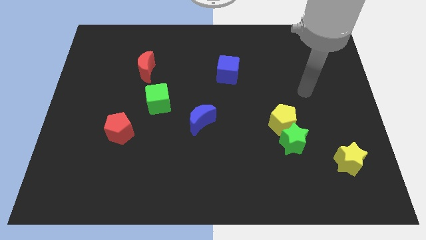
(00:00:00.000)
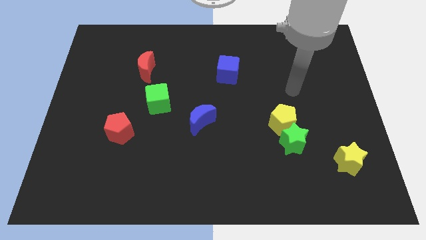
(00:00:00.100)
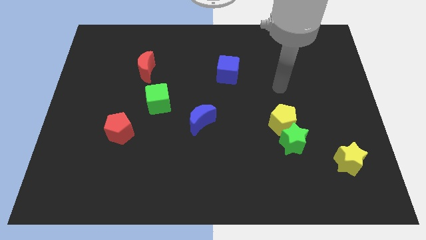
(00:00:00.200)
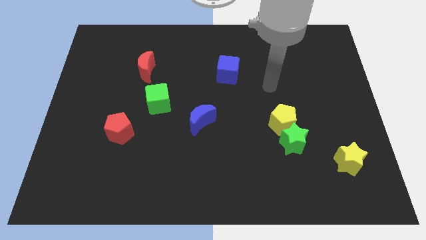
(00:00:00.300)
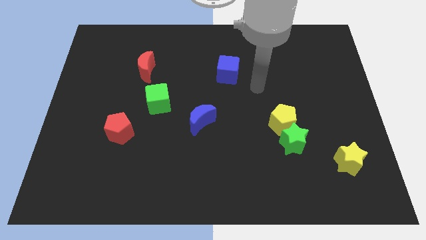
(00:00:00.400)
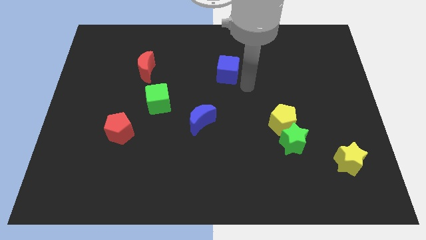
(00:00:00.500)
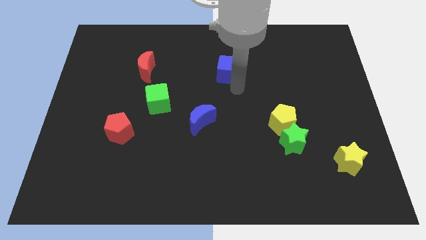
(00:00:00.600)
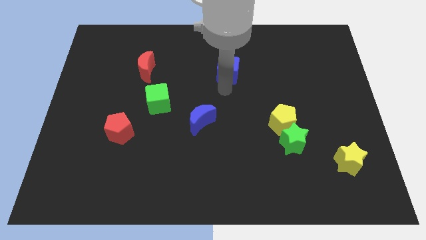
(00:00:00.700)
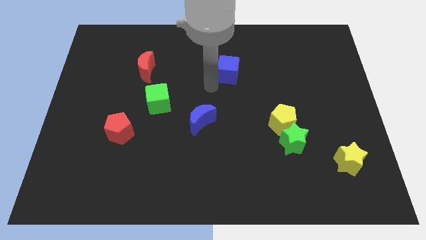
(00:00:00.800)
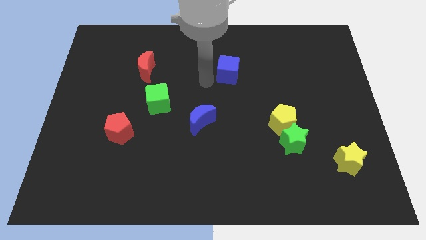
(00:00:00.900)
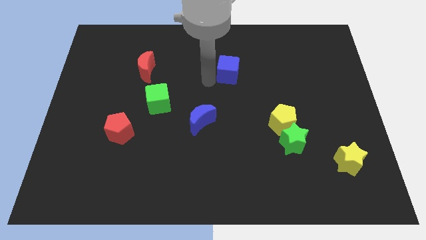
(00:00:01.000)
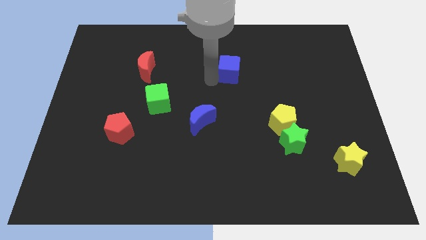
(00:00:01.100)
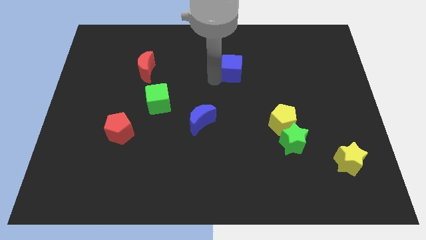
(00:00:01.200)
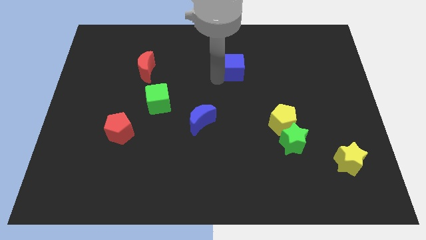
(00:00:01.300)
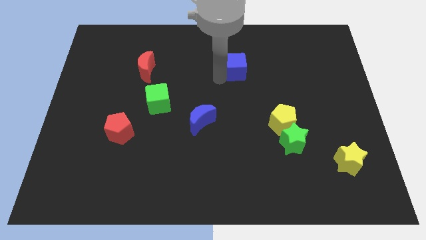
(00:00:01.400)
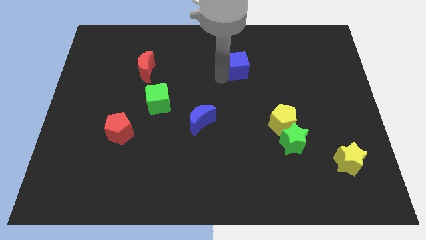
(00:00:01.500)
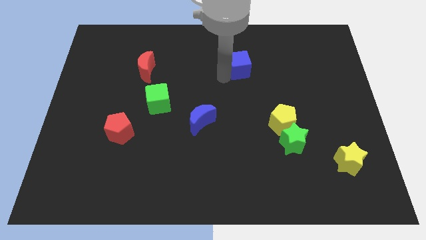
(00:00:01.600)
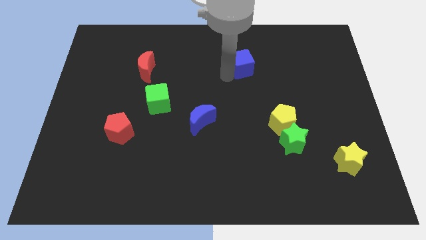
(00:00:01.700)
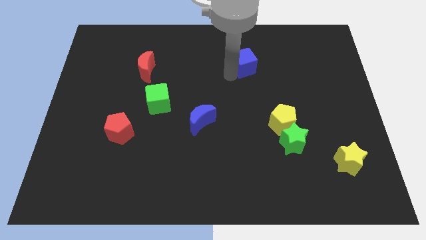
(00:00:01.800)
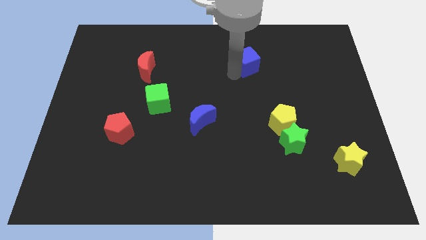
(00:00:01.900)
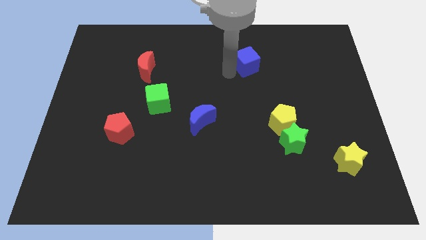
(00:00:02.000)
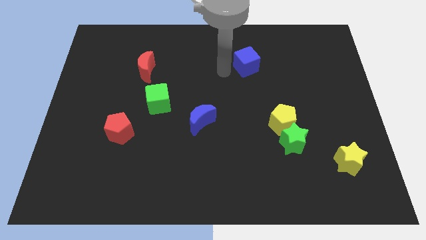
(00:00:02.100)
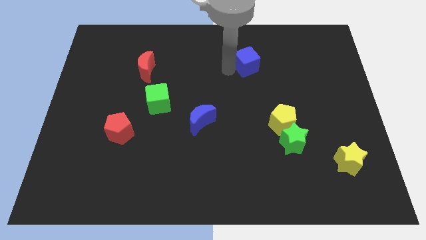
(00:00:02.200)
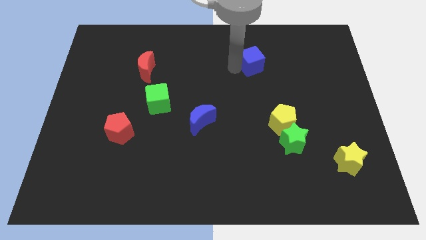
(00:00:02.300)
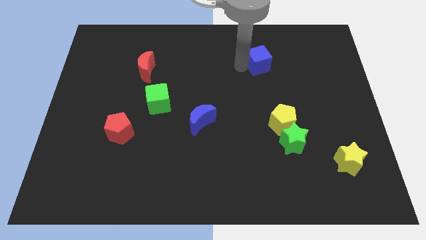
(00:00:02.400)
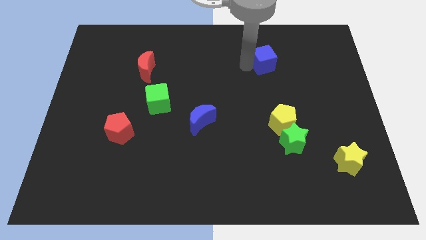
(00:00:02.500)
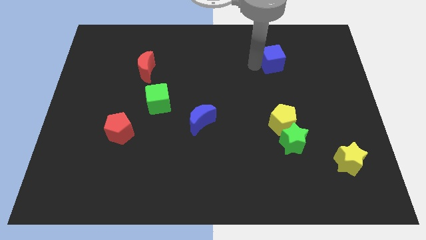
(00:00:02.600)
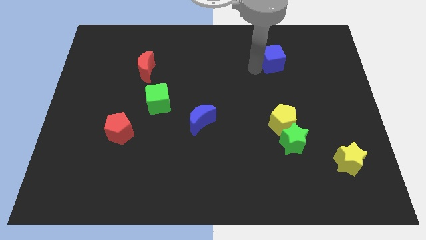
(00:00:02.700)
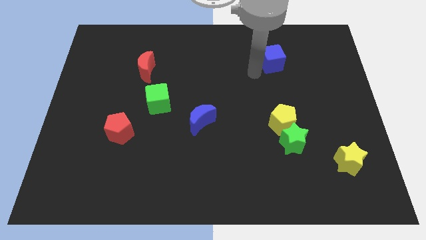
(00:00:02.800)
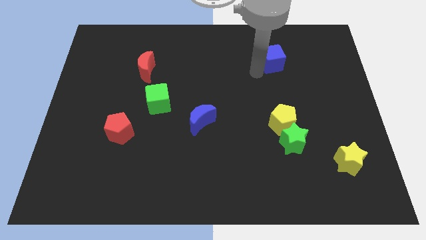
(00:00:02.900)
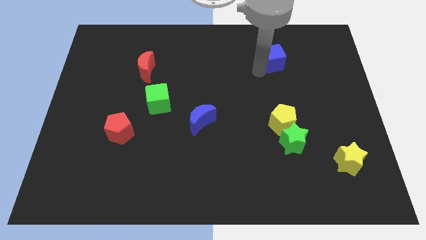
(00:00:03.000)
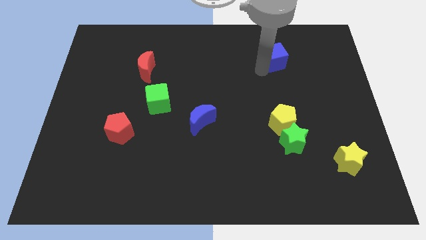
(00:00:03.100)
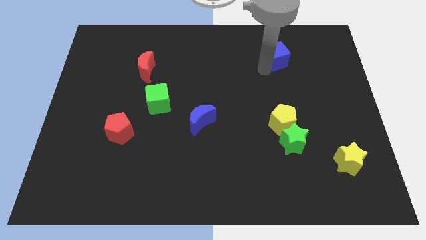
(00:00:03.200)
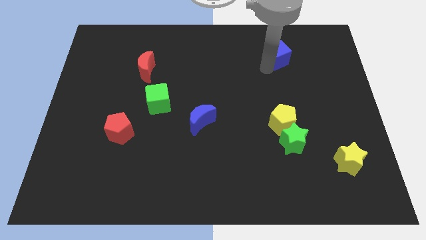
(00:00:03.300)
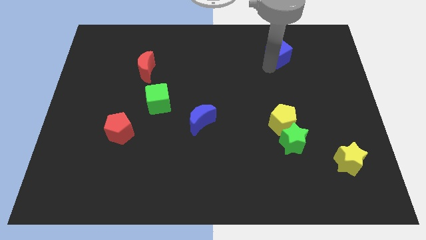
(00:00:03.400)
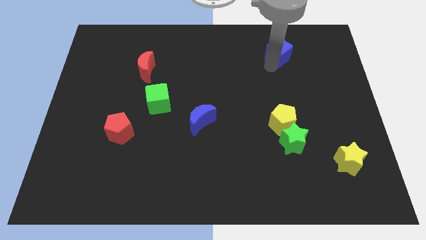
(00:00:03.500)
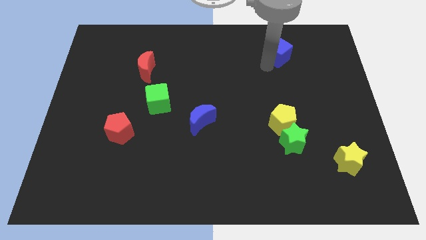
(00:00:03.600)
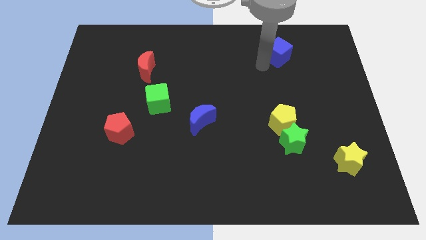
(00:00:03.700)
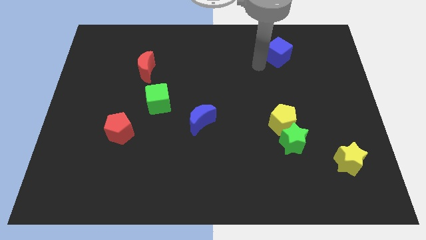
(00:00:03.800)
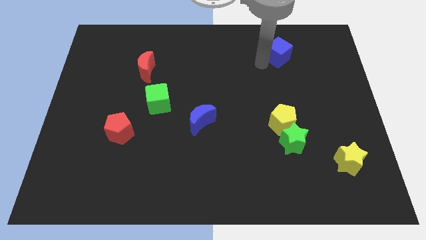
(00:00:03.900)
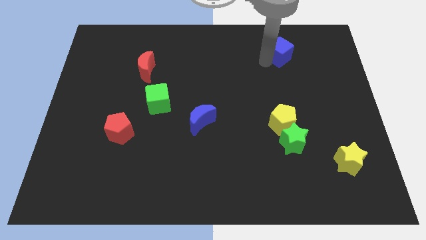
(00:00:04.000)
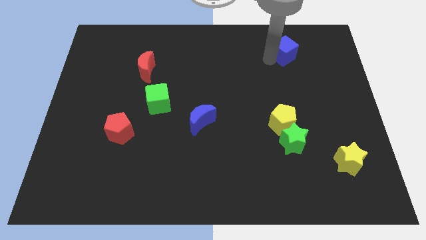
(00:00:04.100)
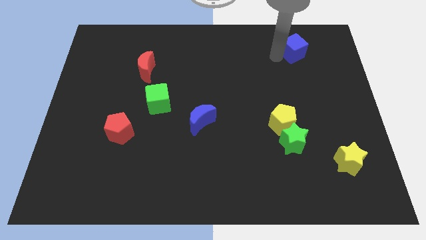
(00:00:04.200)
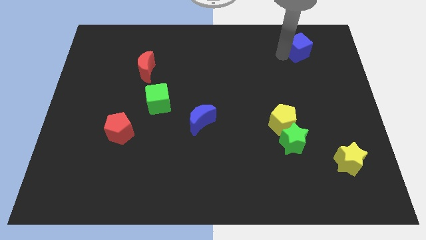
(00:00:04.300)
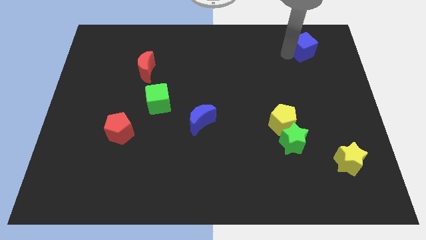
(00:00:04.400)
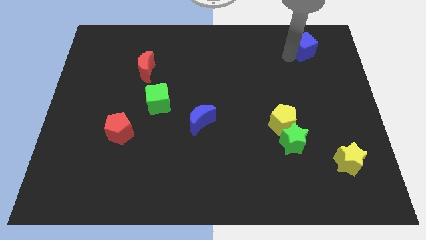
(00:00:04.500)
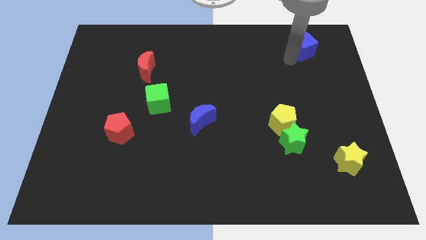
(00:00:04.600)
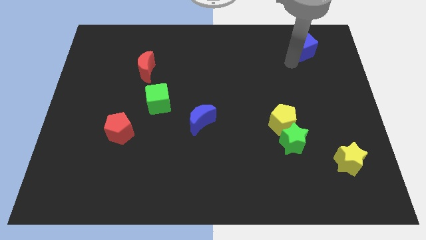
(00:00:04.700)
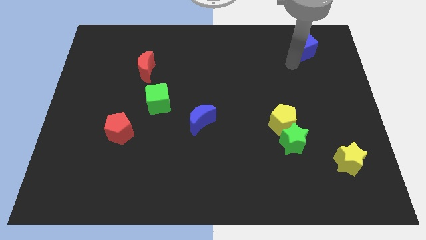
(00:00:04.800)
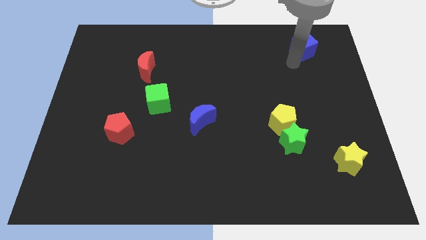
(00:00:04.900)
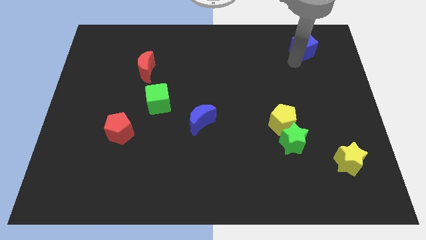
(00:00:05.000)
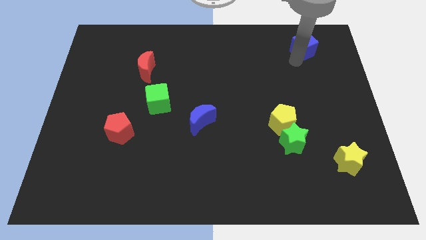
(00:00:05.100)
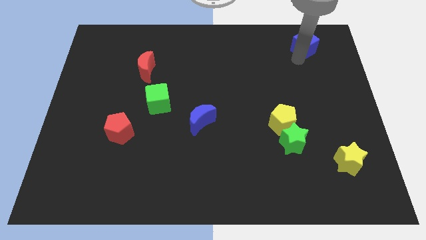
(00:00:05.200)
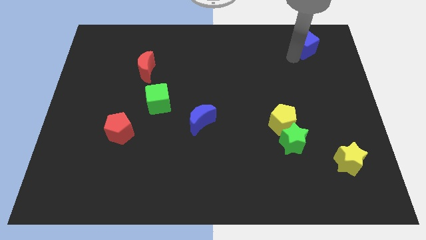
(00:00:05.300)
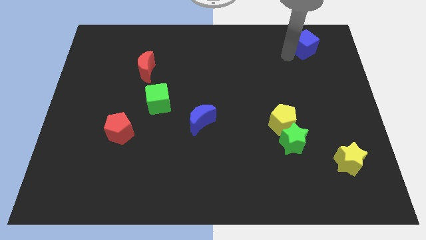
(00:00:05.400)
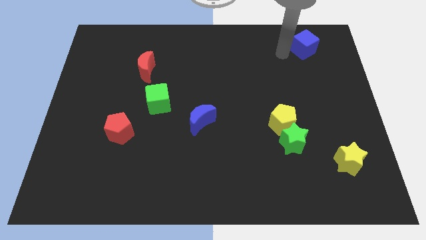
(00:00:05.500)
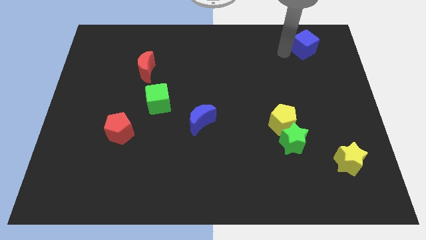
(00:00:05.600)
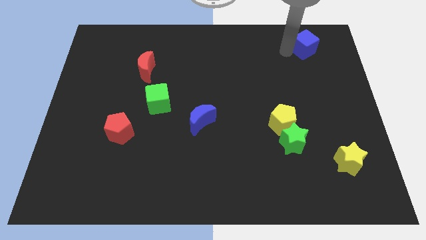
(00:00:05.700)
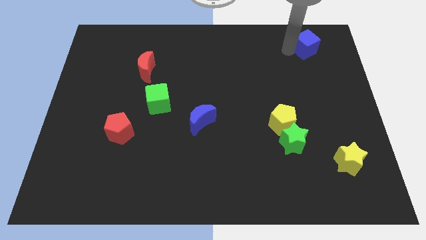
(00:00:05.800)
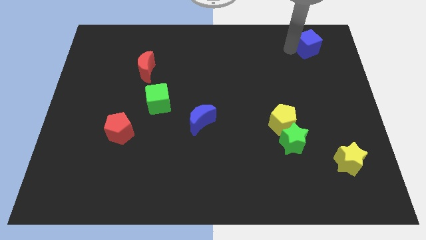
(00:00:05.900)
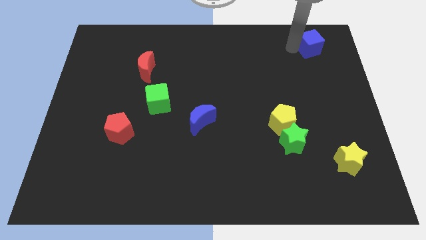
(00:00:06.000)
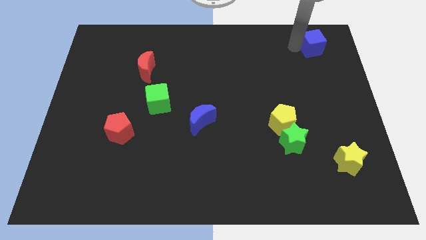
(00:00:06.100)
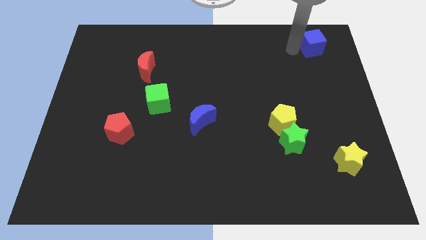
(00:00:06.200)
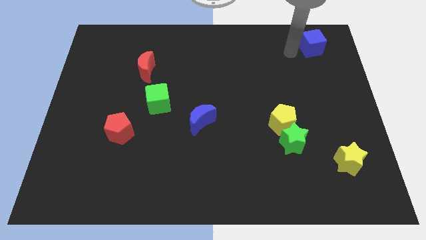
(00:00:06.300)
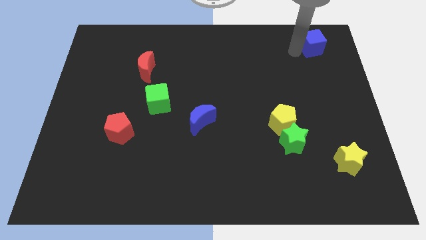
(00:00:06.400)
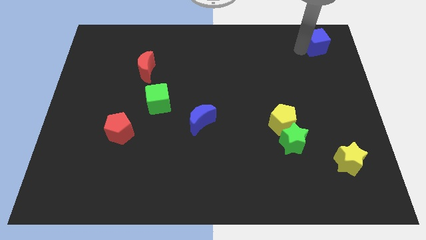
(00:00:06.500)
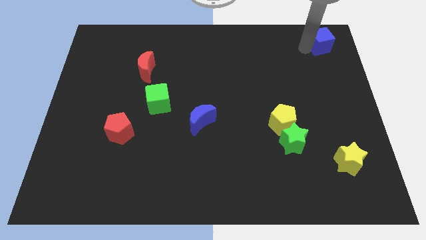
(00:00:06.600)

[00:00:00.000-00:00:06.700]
put the blue cube to the top right corner

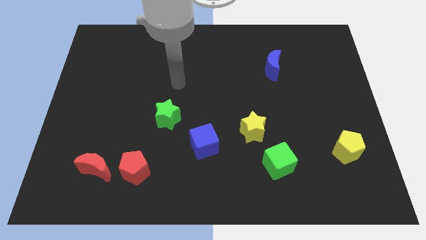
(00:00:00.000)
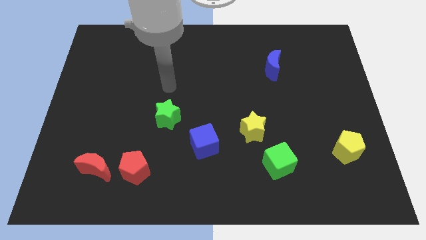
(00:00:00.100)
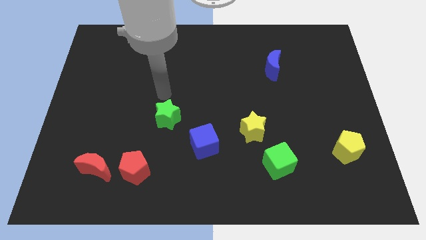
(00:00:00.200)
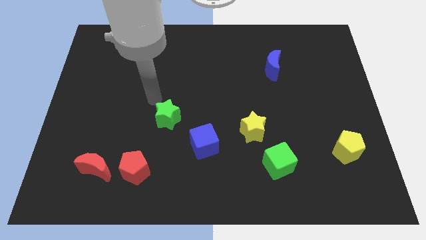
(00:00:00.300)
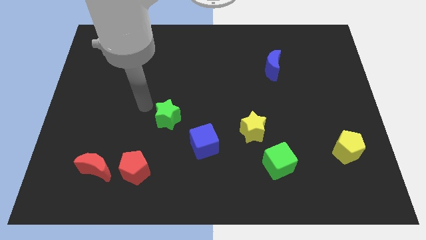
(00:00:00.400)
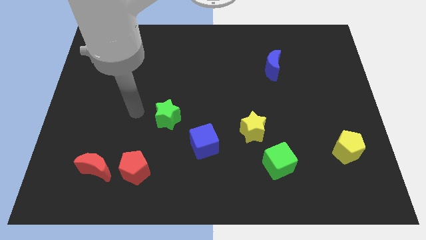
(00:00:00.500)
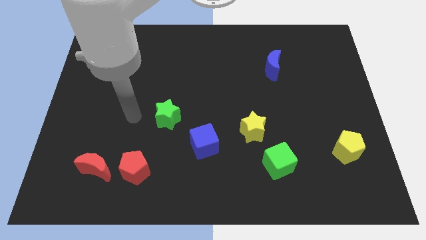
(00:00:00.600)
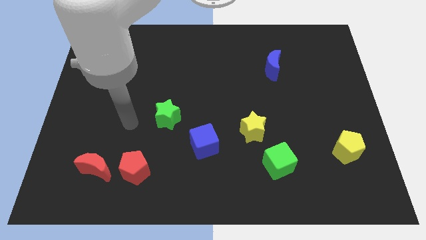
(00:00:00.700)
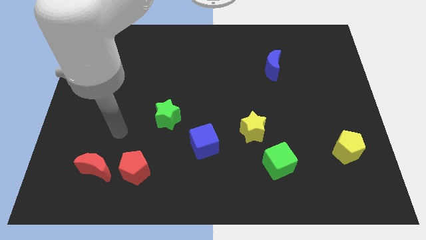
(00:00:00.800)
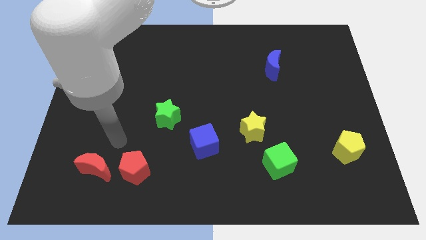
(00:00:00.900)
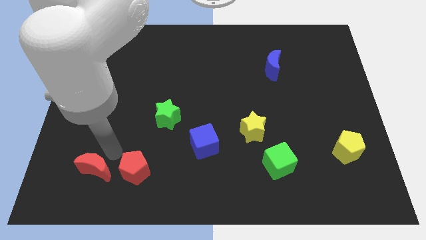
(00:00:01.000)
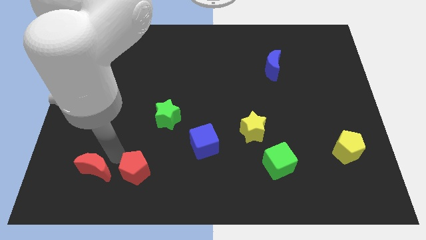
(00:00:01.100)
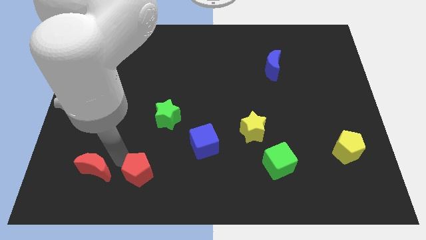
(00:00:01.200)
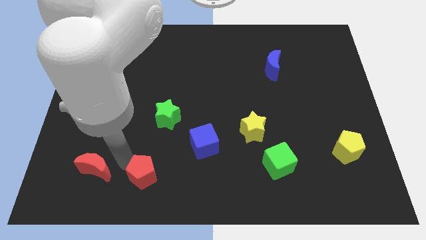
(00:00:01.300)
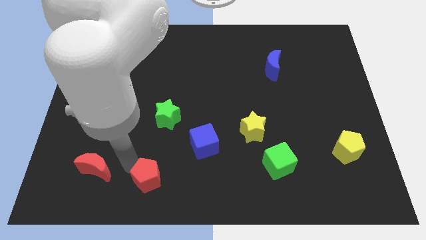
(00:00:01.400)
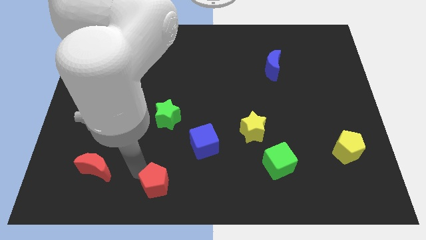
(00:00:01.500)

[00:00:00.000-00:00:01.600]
push the red pentagon to the bottom
